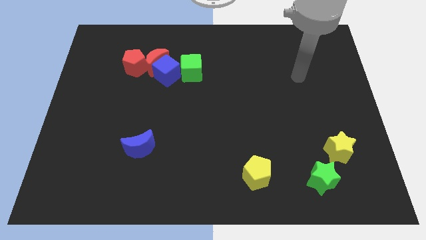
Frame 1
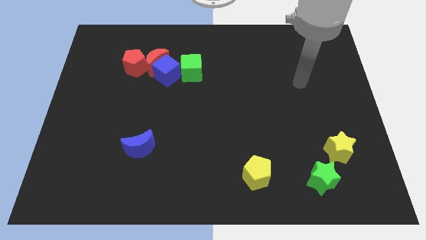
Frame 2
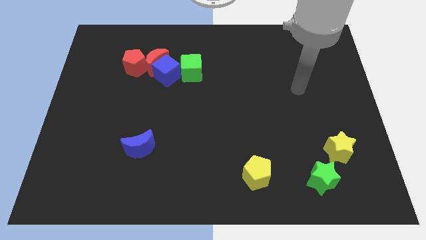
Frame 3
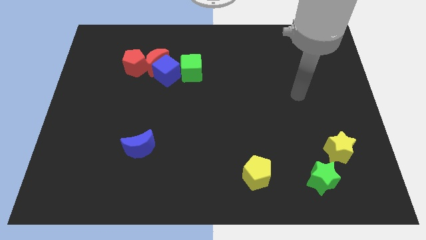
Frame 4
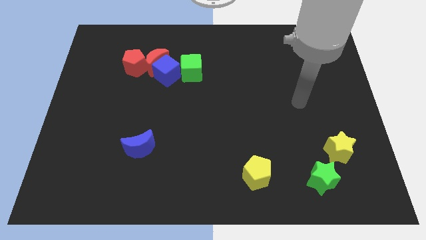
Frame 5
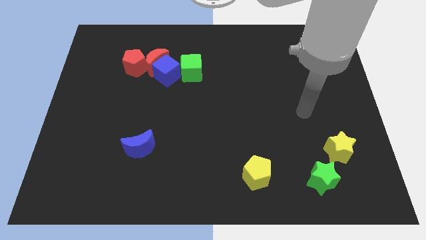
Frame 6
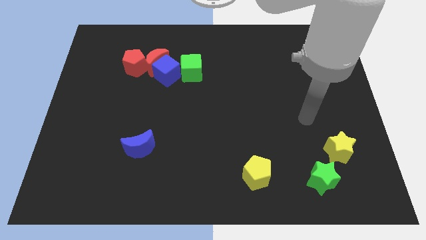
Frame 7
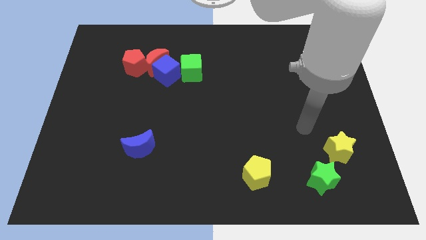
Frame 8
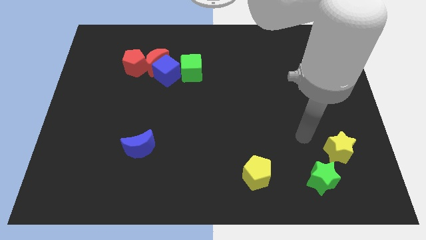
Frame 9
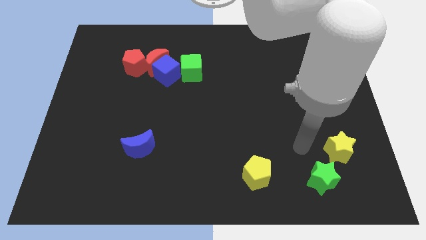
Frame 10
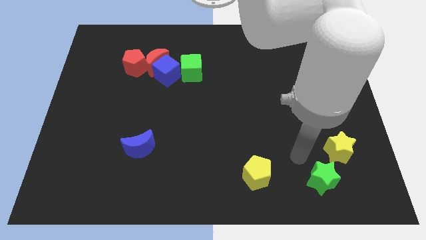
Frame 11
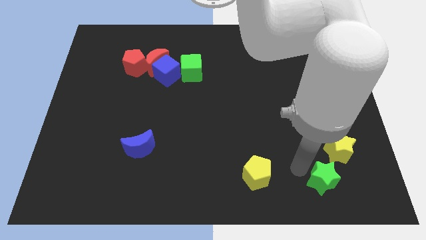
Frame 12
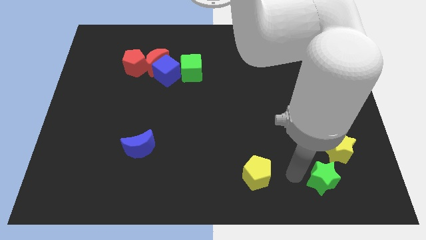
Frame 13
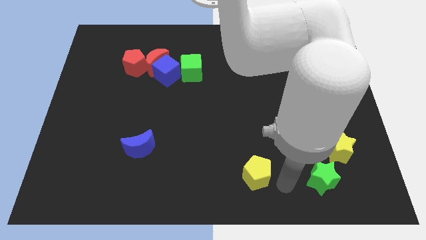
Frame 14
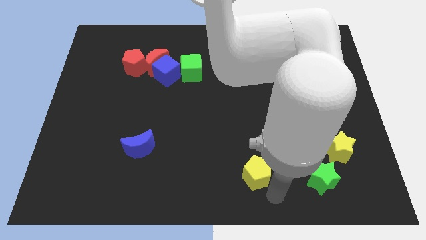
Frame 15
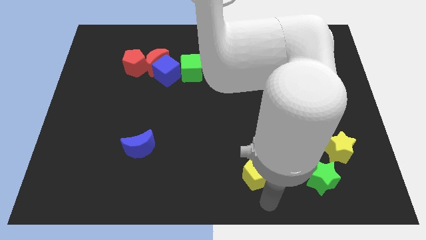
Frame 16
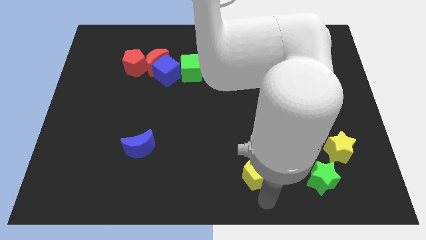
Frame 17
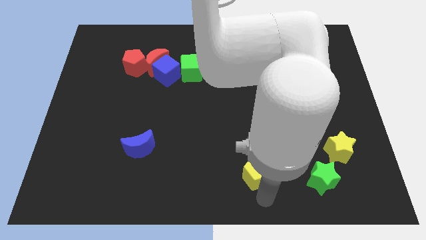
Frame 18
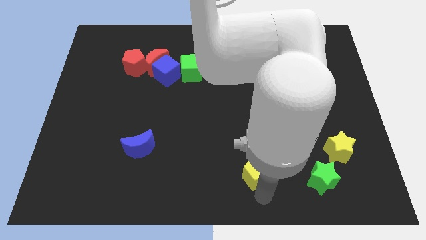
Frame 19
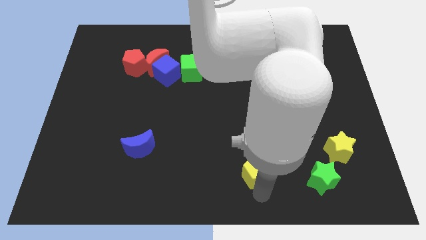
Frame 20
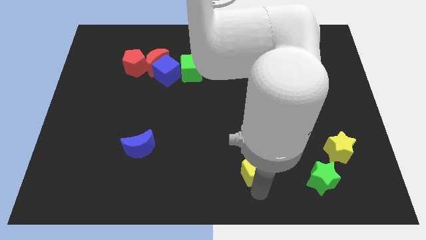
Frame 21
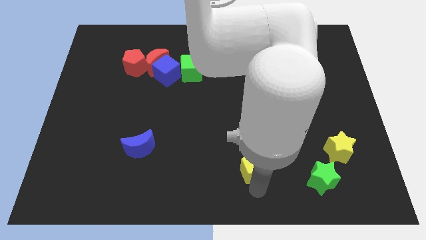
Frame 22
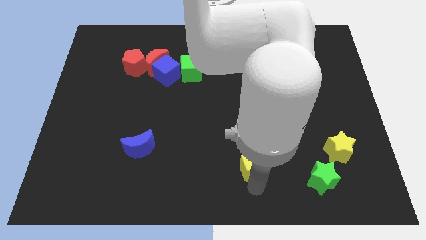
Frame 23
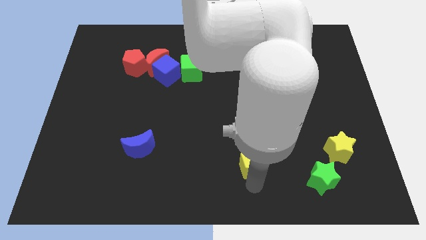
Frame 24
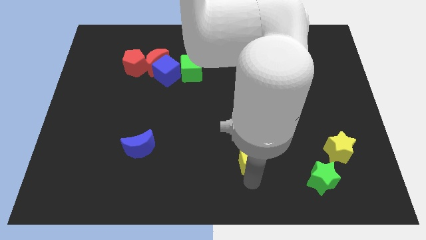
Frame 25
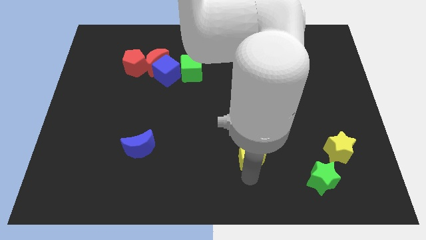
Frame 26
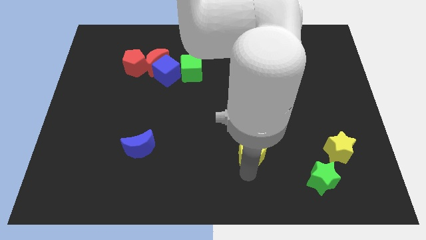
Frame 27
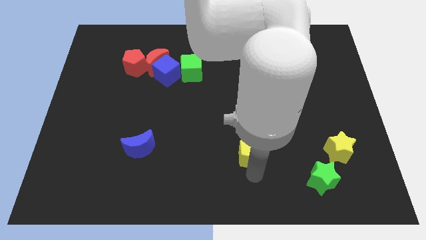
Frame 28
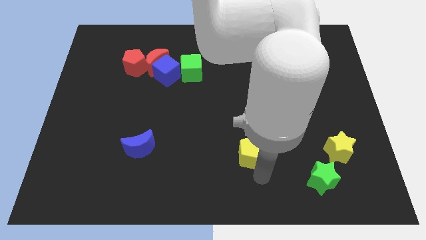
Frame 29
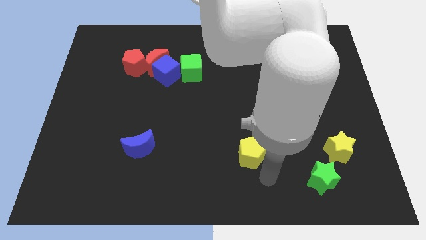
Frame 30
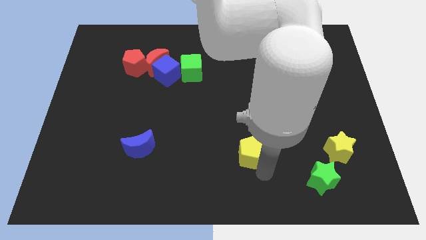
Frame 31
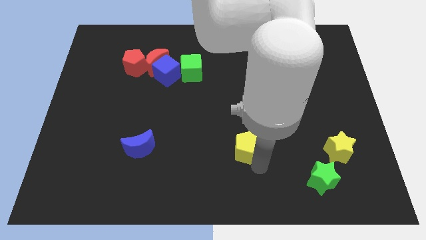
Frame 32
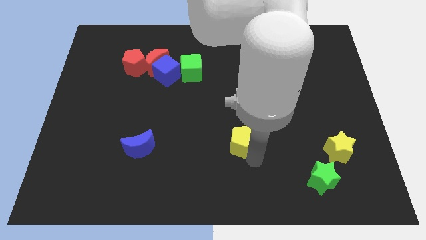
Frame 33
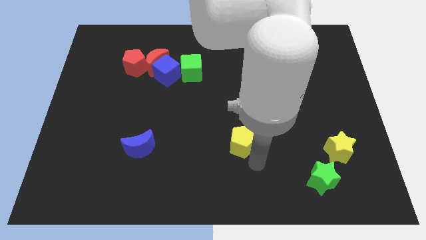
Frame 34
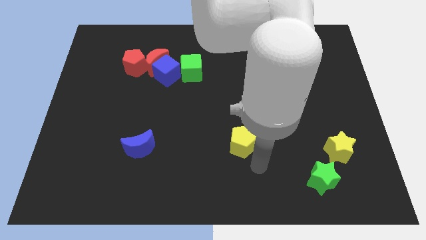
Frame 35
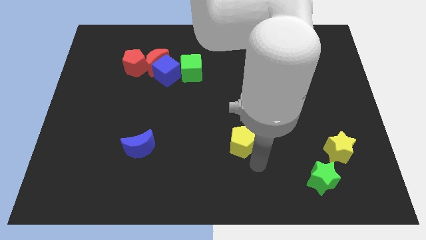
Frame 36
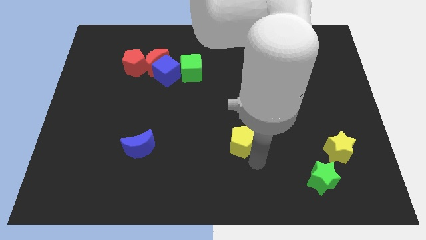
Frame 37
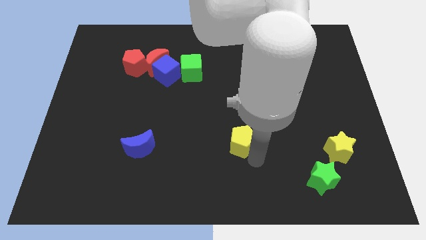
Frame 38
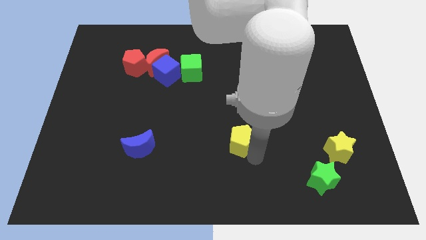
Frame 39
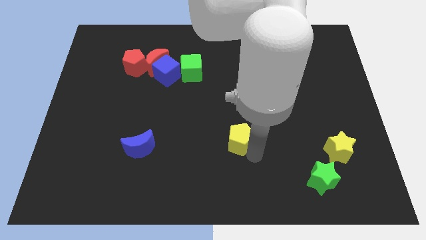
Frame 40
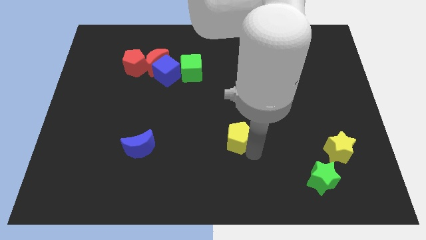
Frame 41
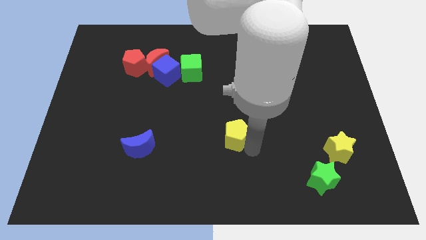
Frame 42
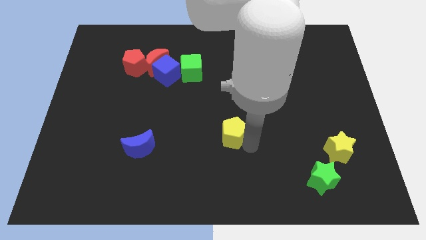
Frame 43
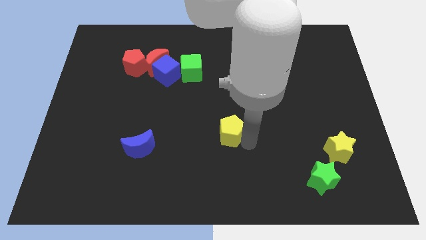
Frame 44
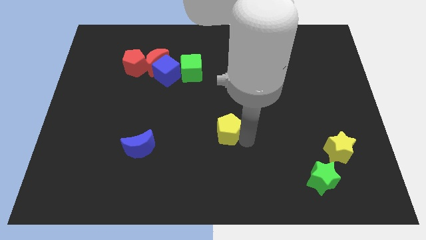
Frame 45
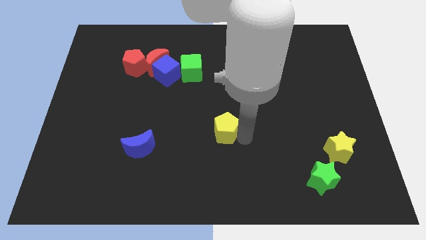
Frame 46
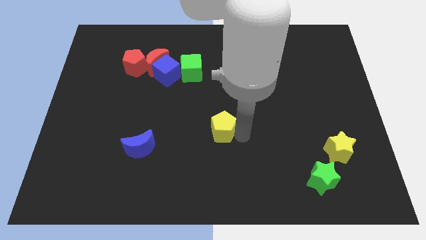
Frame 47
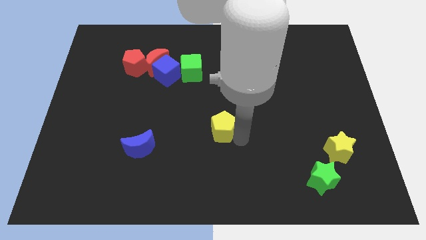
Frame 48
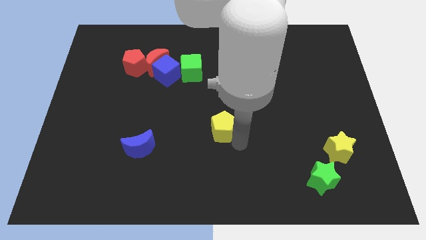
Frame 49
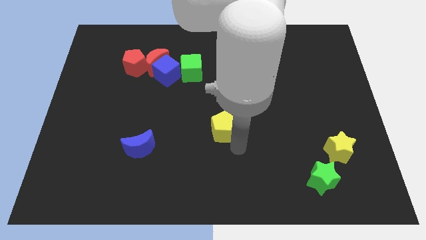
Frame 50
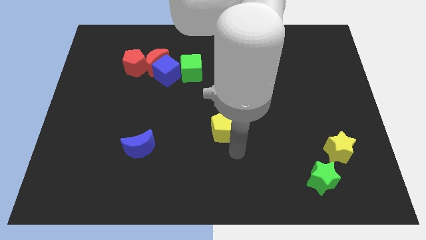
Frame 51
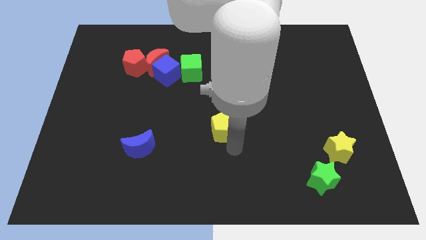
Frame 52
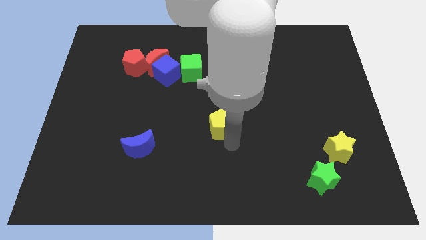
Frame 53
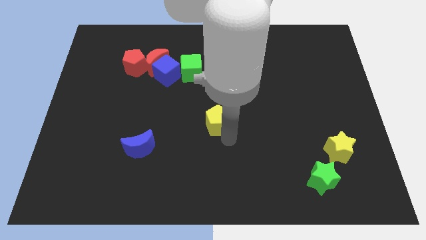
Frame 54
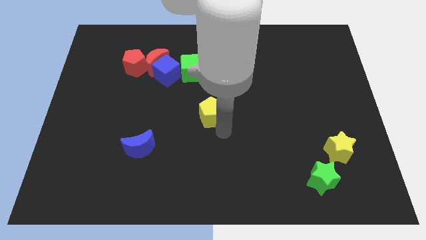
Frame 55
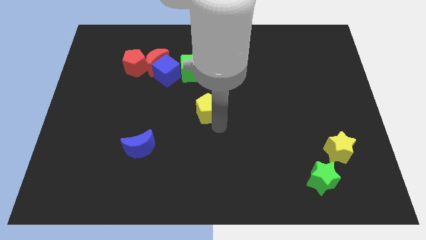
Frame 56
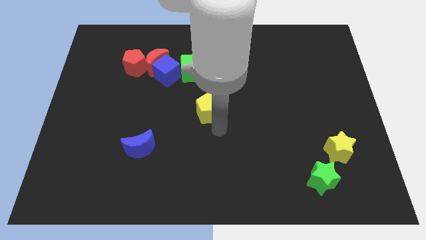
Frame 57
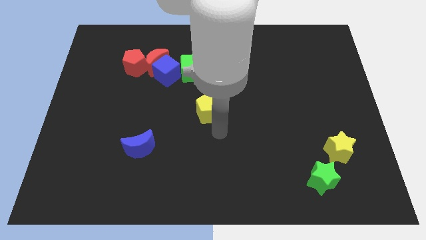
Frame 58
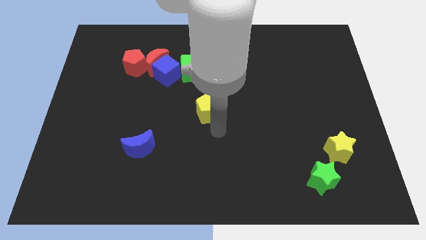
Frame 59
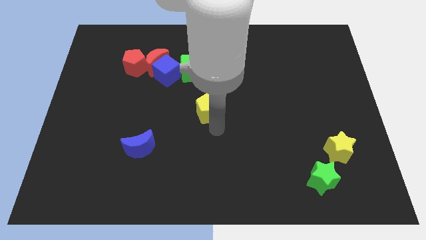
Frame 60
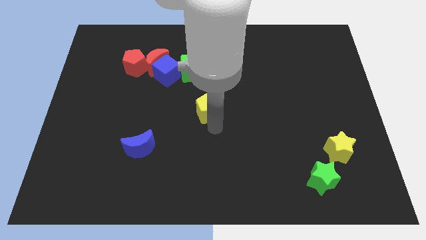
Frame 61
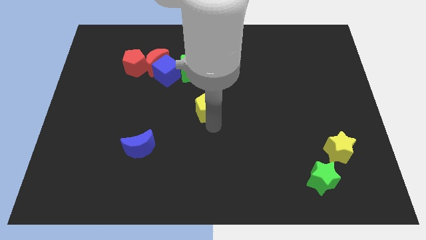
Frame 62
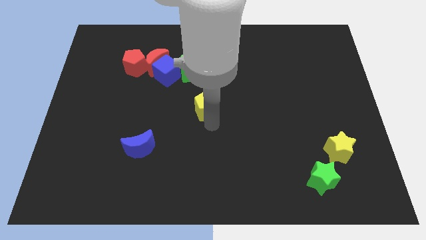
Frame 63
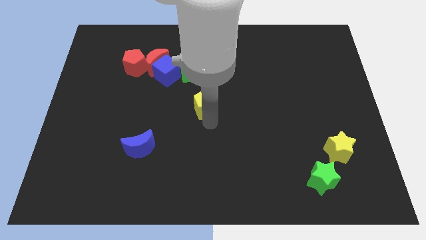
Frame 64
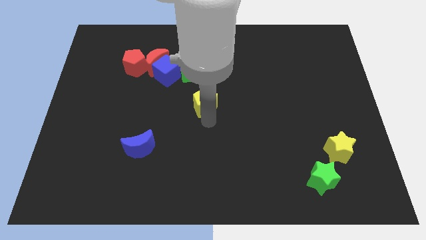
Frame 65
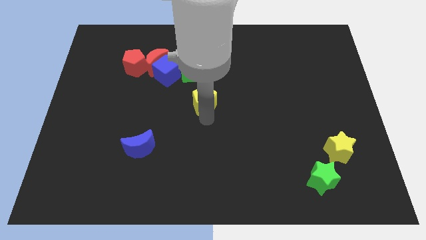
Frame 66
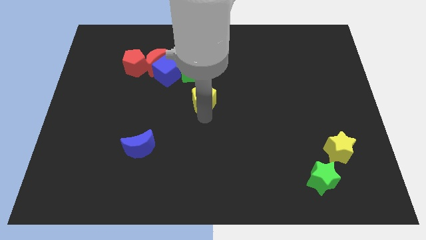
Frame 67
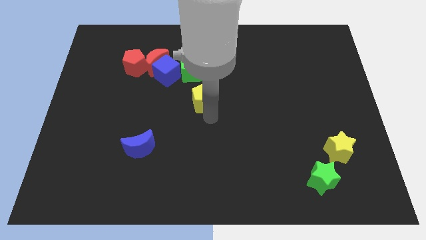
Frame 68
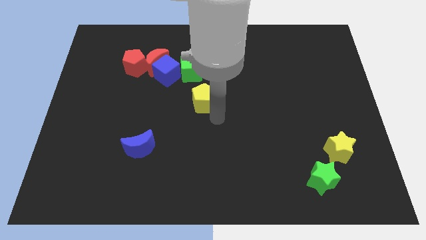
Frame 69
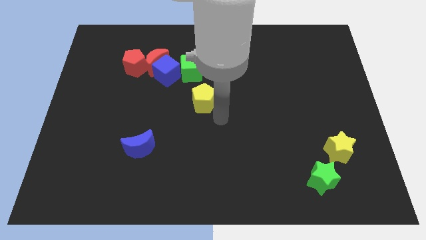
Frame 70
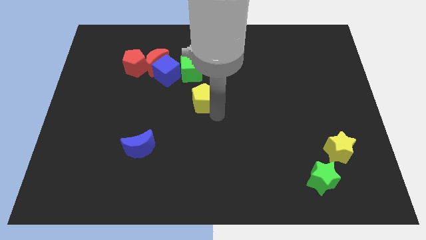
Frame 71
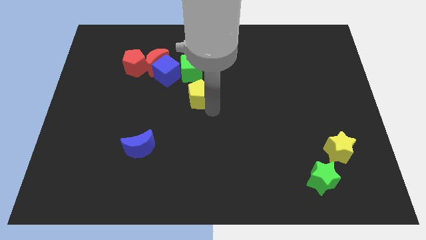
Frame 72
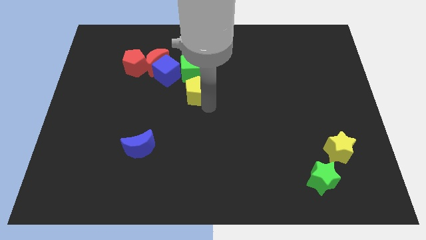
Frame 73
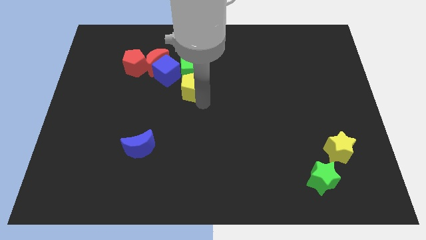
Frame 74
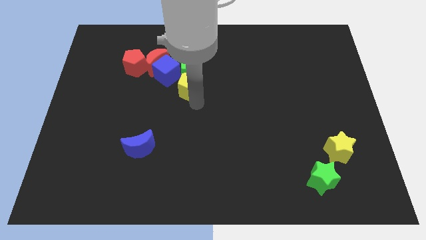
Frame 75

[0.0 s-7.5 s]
move the yellow pentagon right of the blue cube
